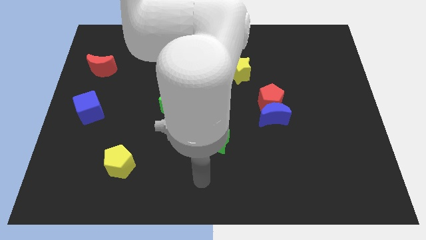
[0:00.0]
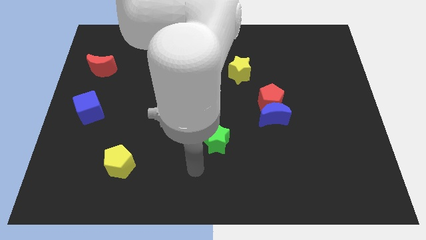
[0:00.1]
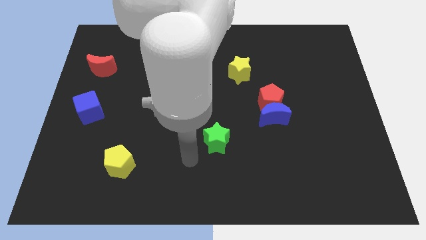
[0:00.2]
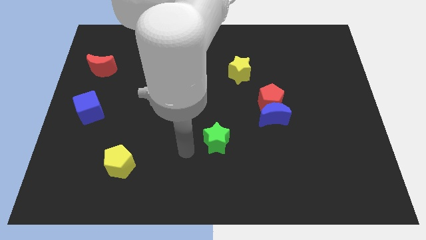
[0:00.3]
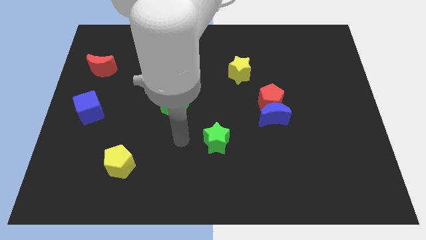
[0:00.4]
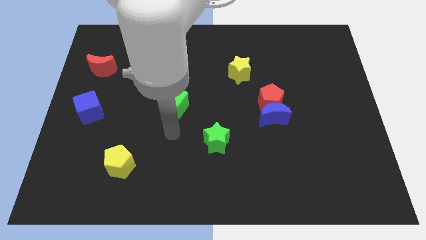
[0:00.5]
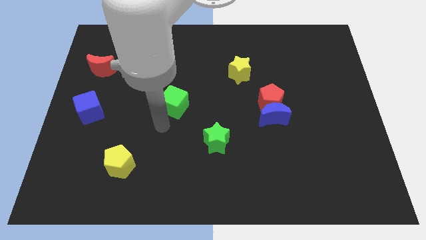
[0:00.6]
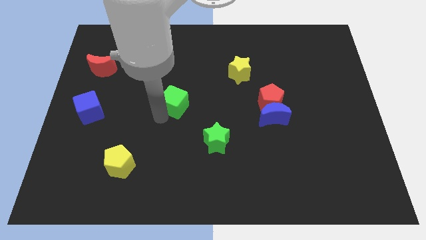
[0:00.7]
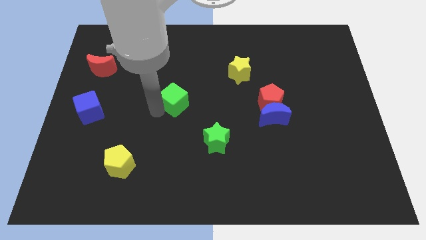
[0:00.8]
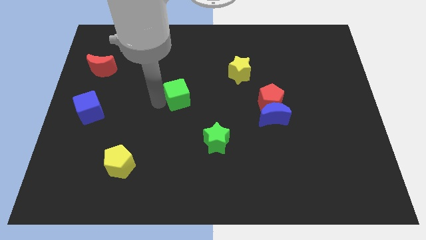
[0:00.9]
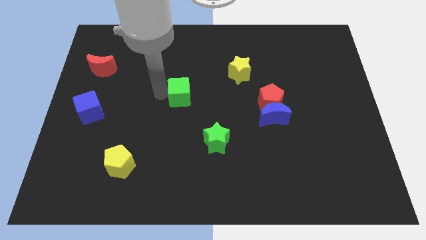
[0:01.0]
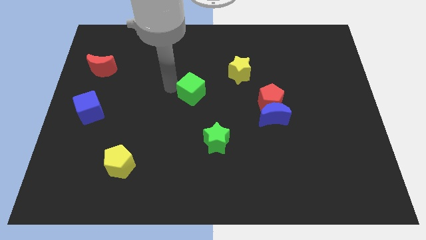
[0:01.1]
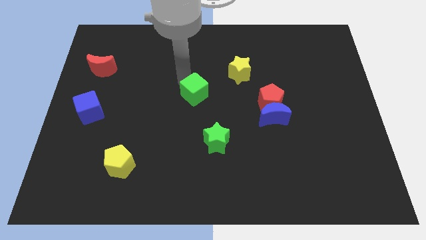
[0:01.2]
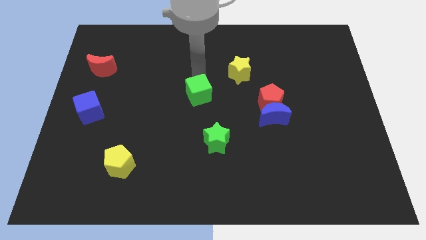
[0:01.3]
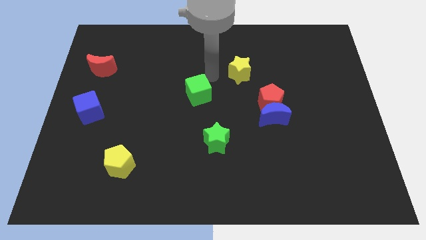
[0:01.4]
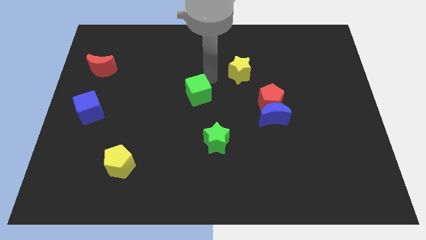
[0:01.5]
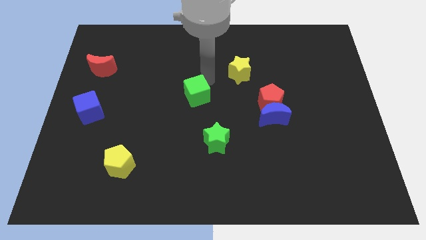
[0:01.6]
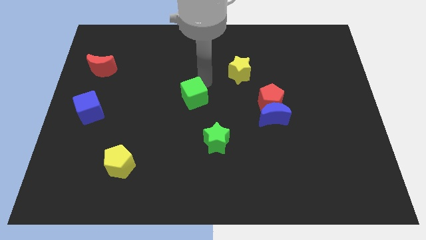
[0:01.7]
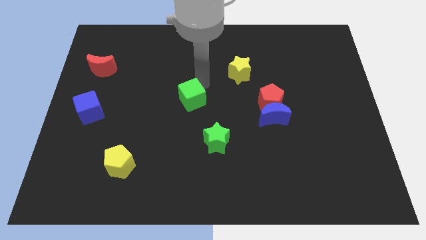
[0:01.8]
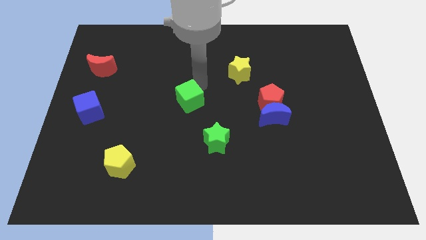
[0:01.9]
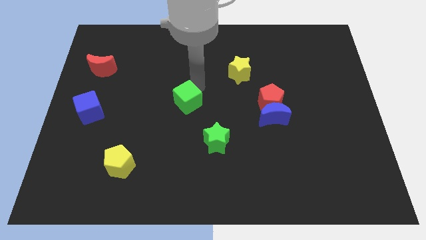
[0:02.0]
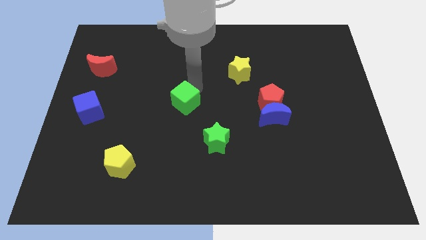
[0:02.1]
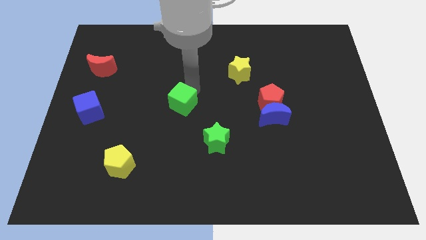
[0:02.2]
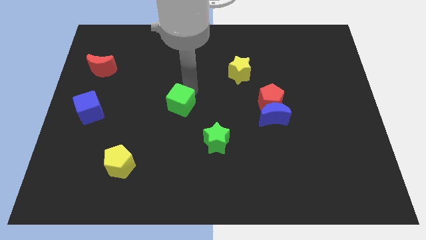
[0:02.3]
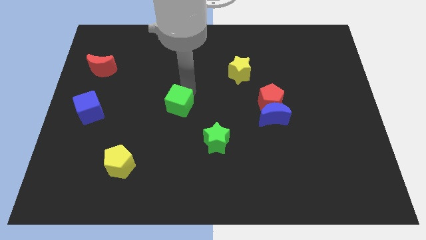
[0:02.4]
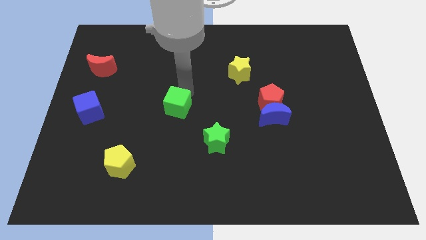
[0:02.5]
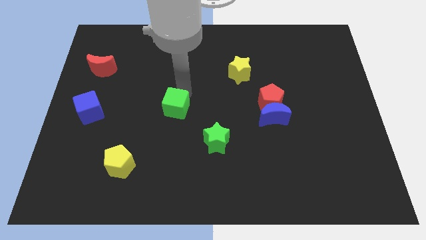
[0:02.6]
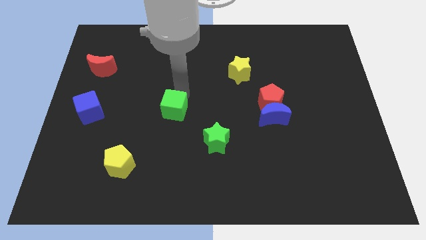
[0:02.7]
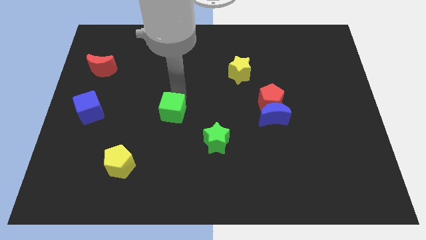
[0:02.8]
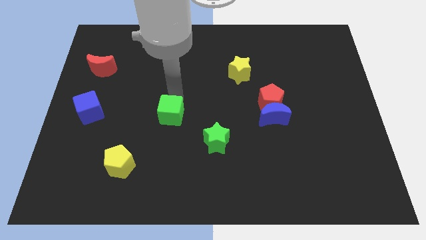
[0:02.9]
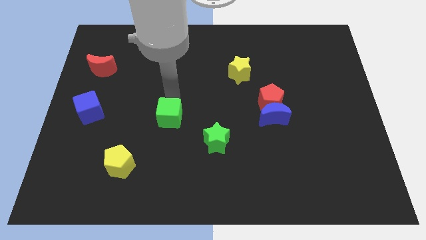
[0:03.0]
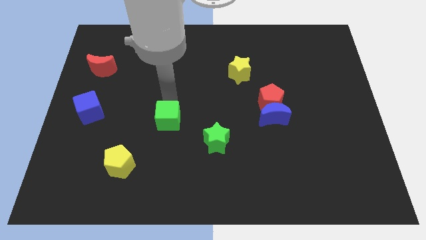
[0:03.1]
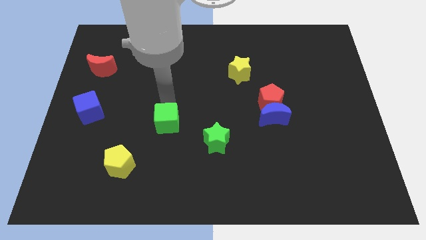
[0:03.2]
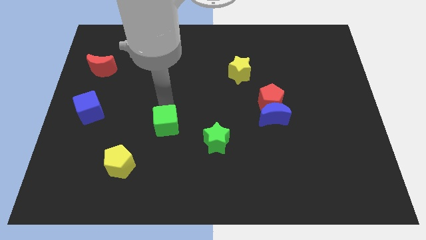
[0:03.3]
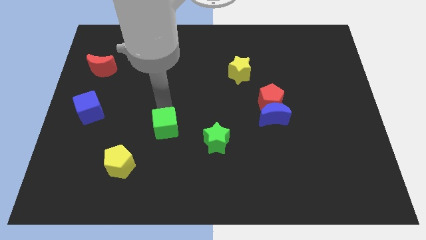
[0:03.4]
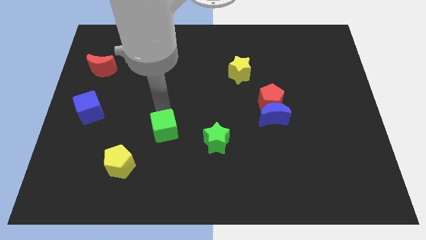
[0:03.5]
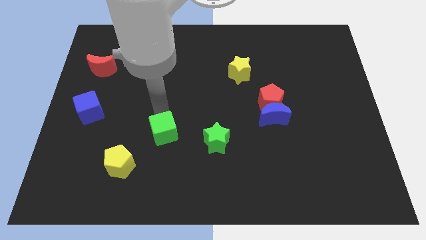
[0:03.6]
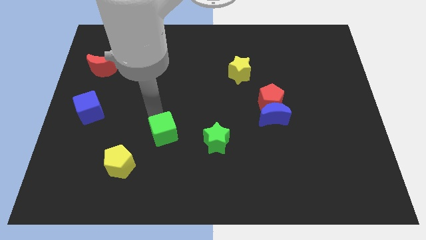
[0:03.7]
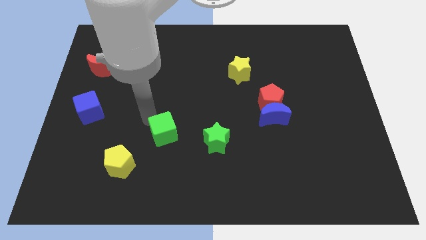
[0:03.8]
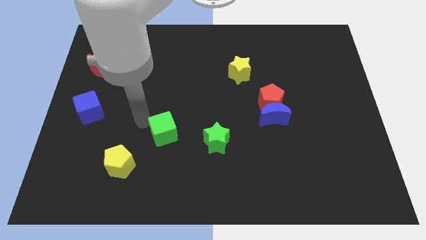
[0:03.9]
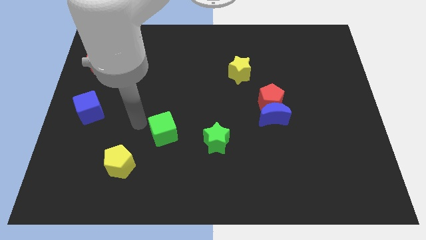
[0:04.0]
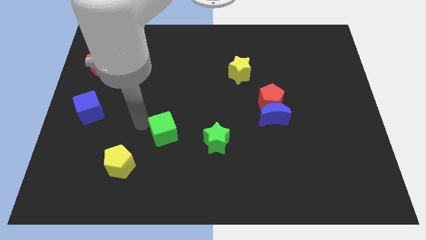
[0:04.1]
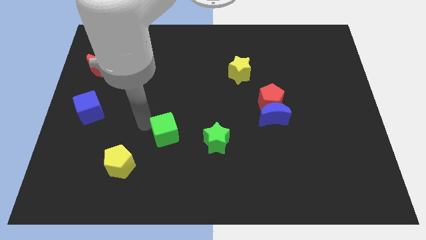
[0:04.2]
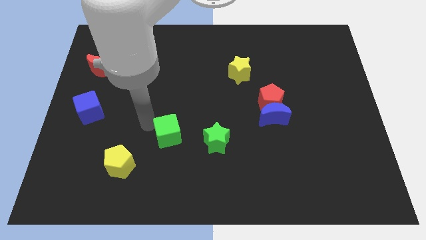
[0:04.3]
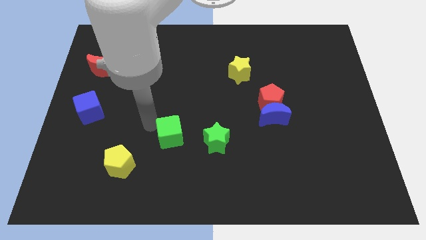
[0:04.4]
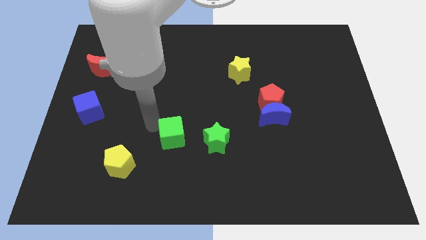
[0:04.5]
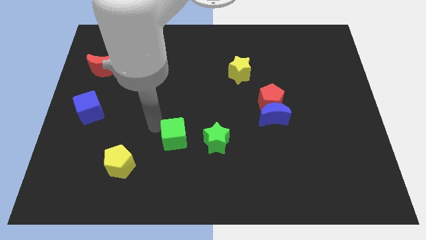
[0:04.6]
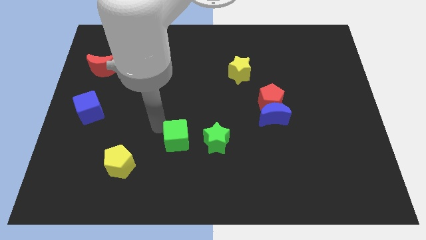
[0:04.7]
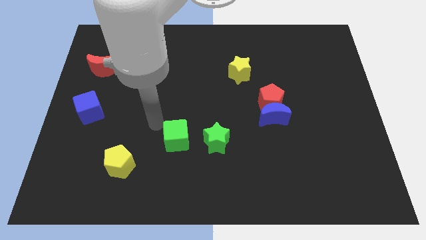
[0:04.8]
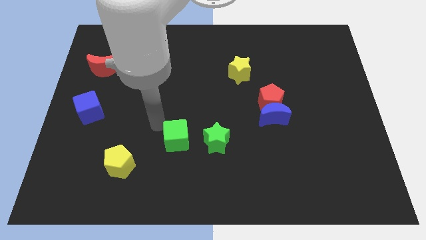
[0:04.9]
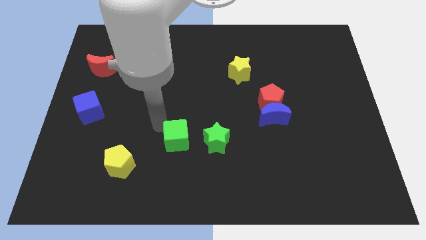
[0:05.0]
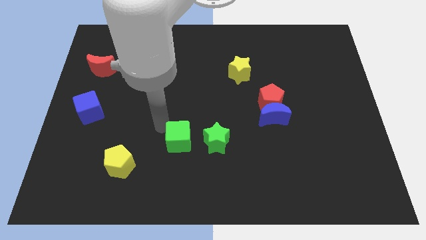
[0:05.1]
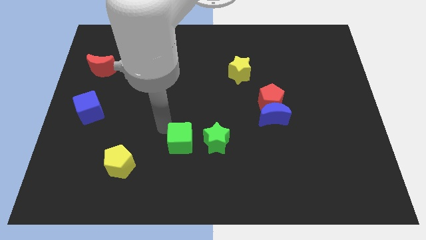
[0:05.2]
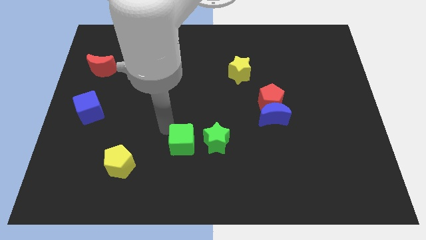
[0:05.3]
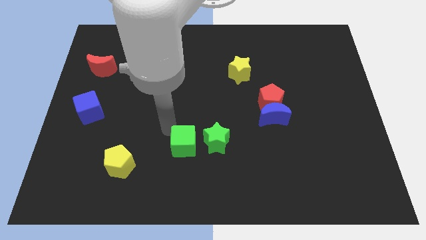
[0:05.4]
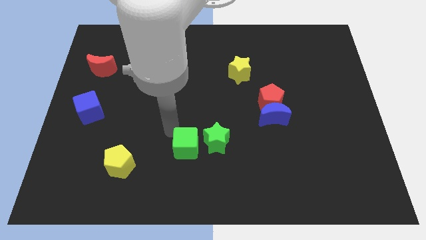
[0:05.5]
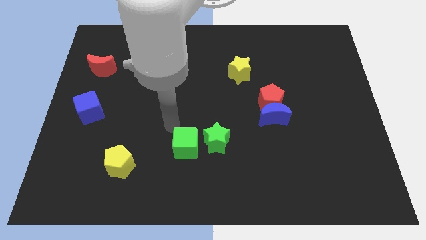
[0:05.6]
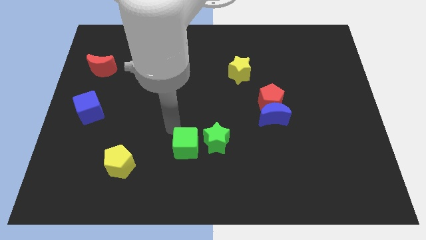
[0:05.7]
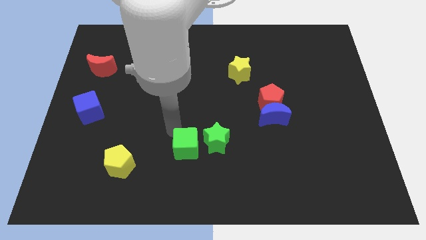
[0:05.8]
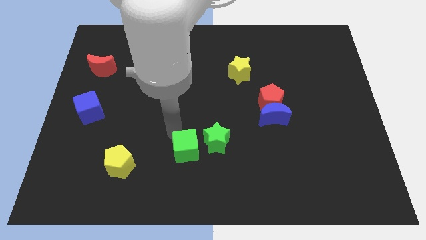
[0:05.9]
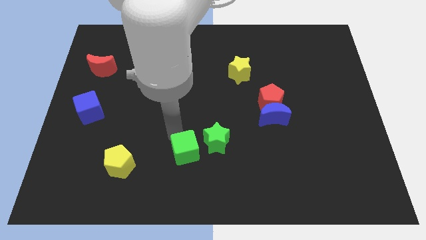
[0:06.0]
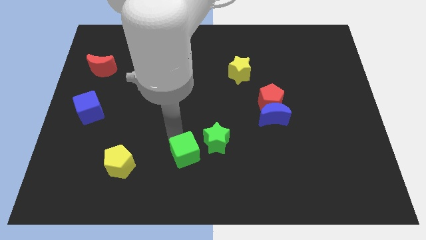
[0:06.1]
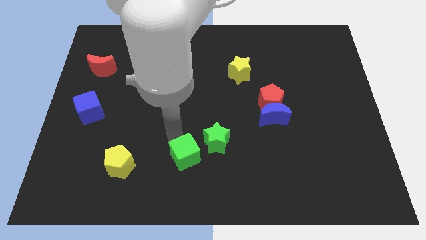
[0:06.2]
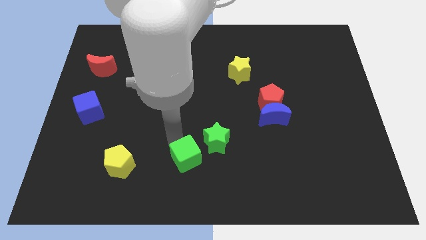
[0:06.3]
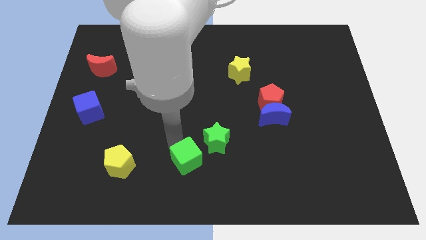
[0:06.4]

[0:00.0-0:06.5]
move the green cube to the bottom

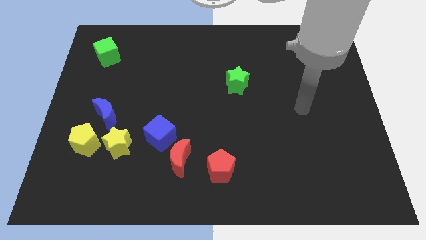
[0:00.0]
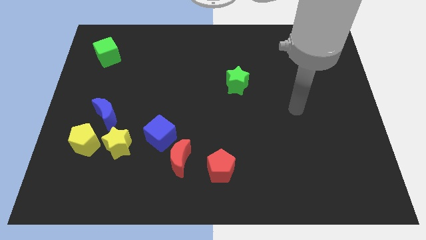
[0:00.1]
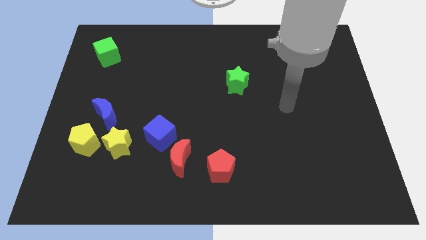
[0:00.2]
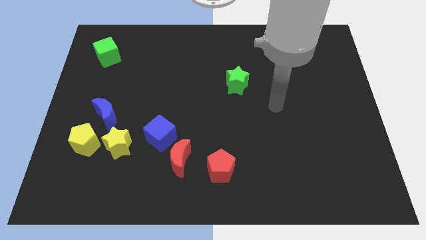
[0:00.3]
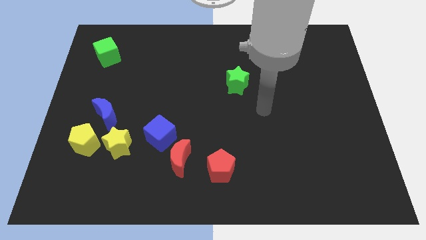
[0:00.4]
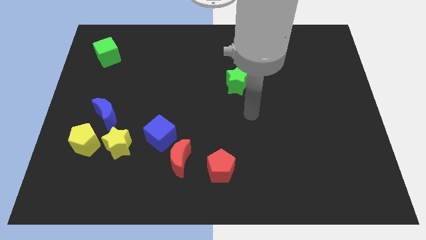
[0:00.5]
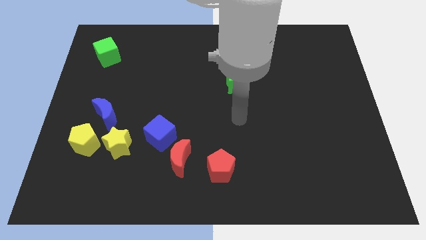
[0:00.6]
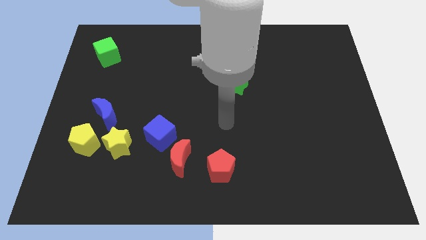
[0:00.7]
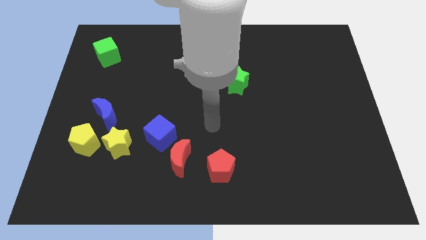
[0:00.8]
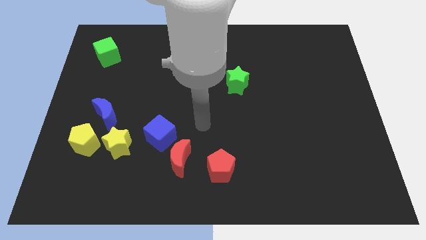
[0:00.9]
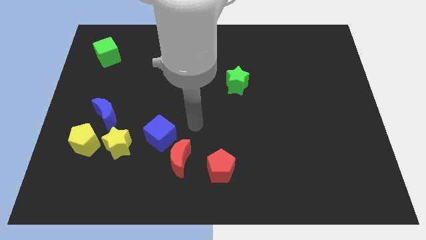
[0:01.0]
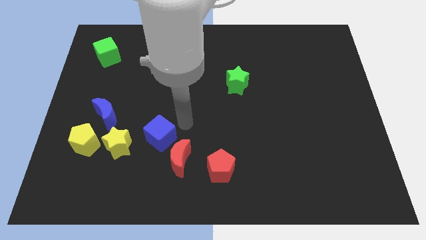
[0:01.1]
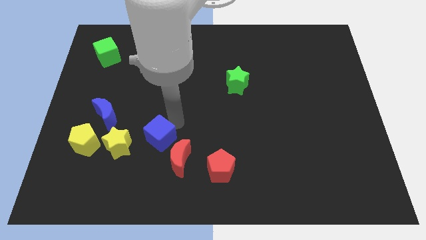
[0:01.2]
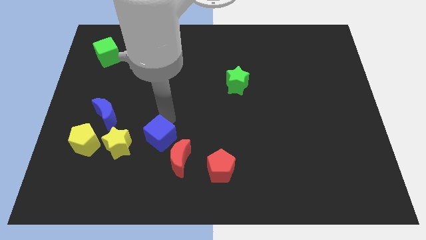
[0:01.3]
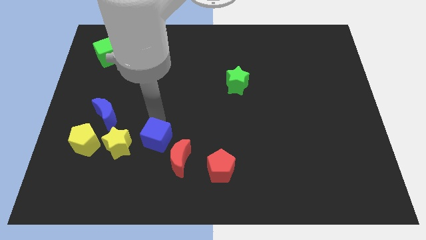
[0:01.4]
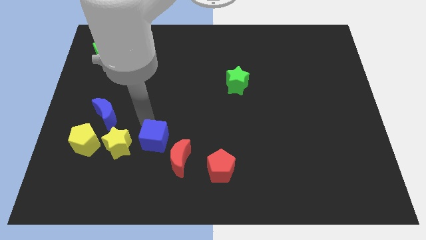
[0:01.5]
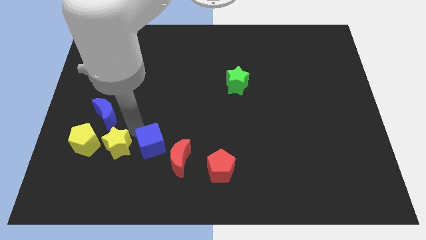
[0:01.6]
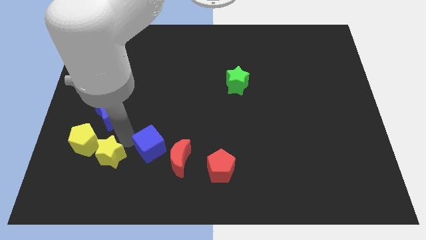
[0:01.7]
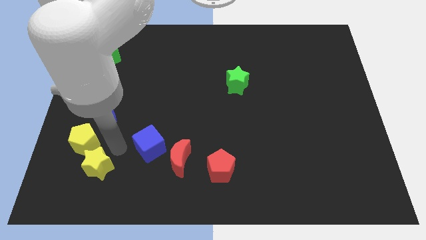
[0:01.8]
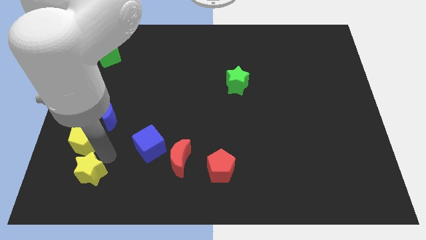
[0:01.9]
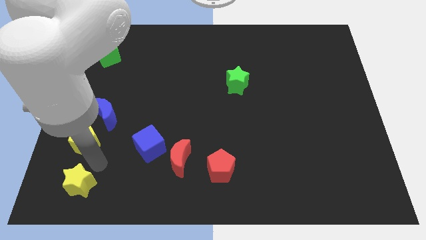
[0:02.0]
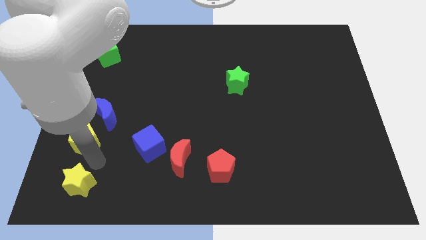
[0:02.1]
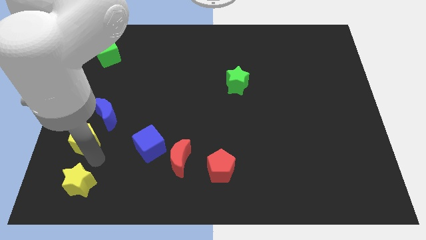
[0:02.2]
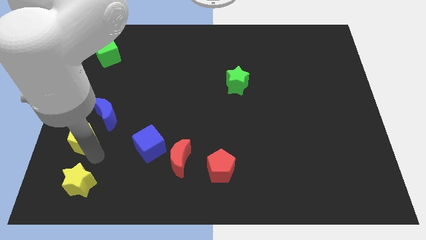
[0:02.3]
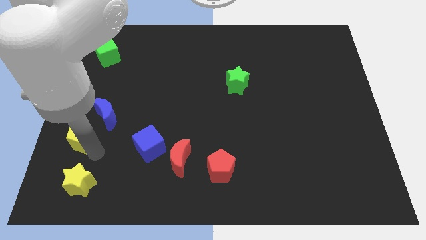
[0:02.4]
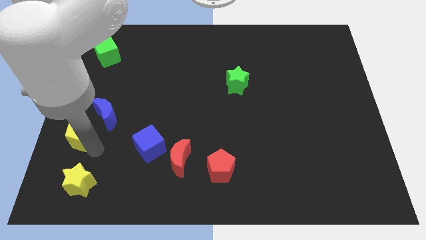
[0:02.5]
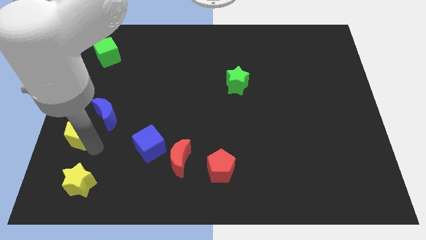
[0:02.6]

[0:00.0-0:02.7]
slide the yellow pentagon to the left side of the board
